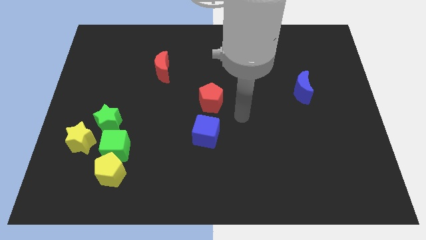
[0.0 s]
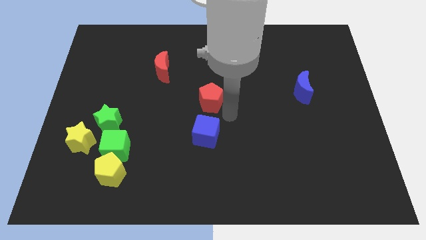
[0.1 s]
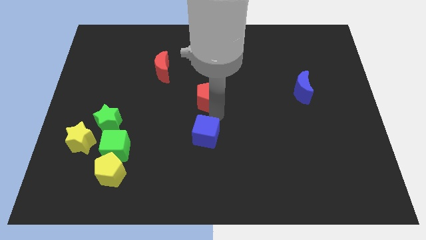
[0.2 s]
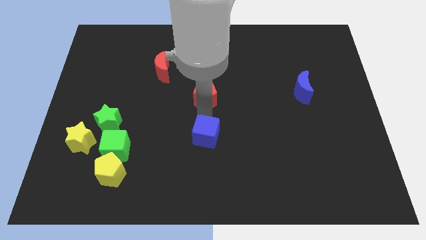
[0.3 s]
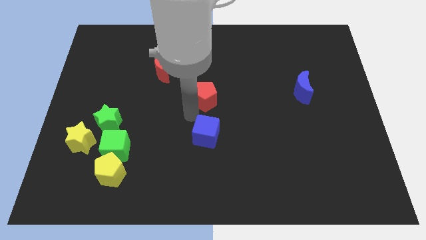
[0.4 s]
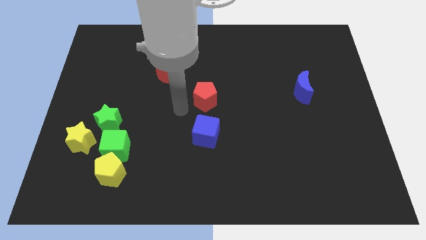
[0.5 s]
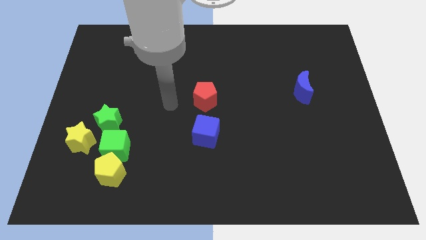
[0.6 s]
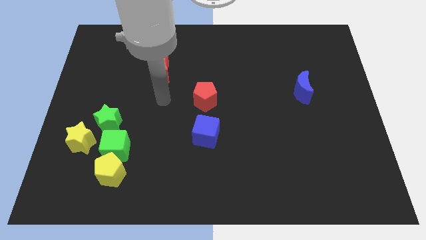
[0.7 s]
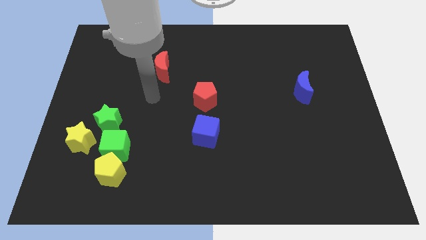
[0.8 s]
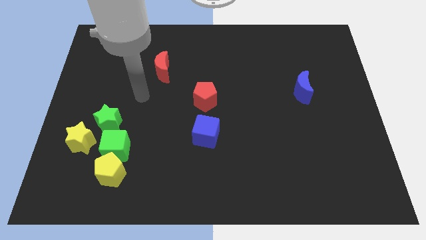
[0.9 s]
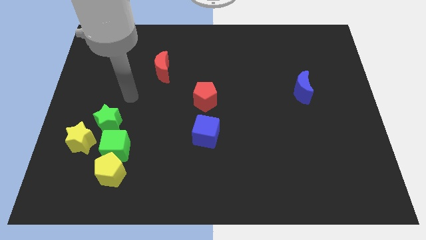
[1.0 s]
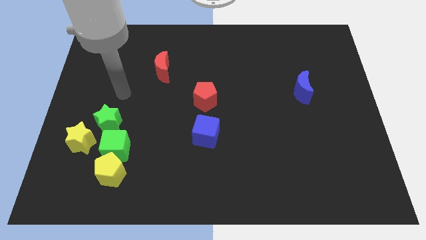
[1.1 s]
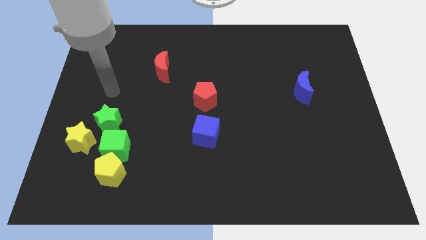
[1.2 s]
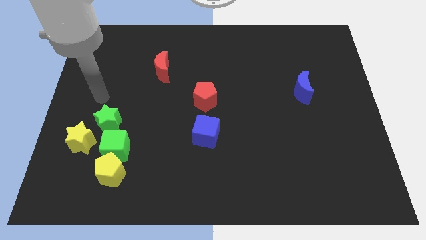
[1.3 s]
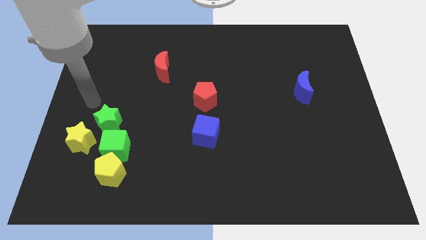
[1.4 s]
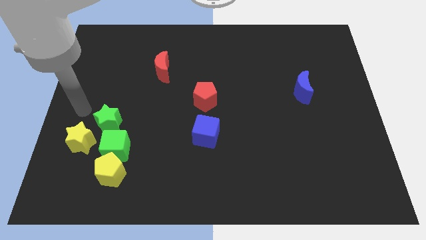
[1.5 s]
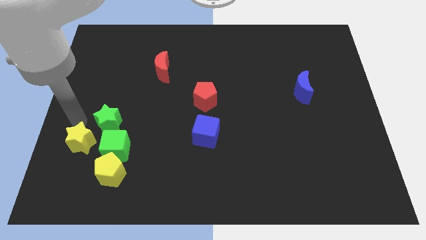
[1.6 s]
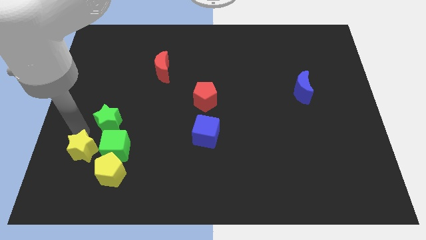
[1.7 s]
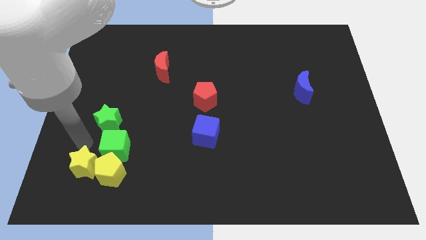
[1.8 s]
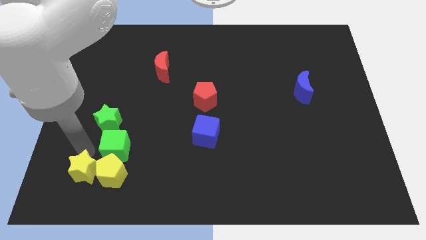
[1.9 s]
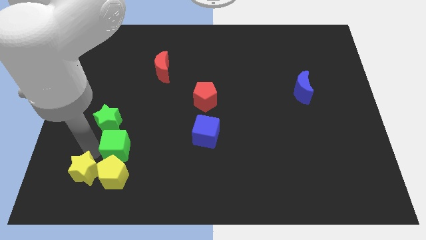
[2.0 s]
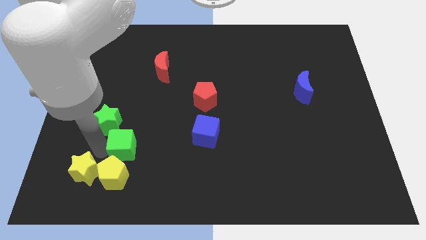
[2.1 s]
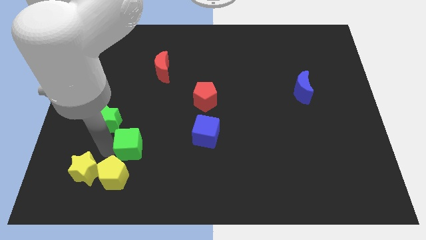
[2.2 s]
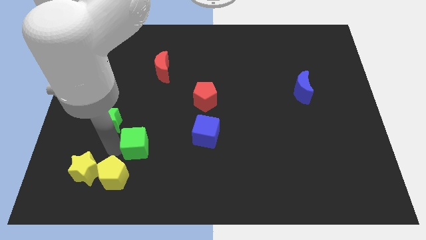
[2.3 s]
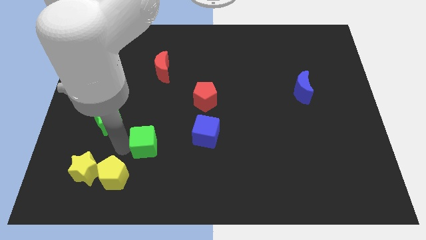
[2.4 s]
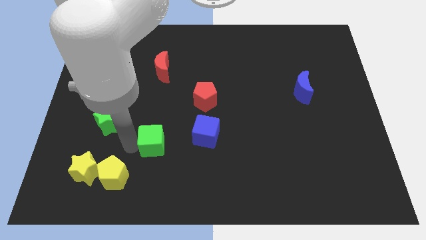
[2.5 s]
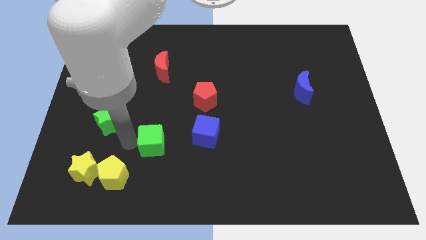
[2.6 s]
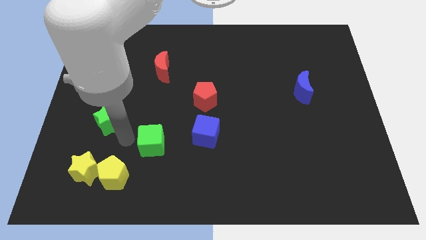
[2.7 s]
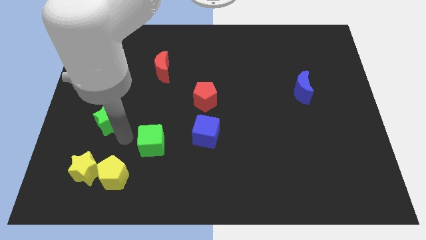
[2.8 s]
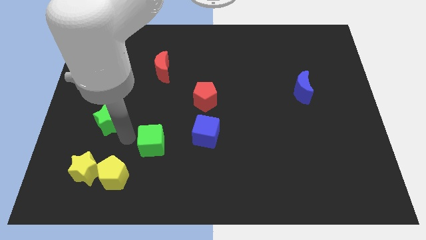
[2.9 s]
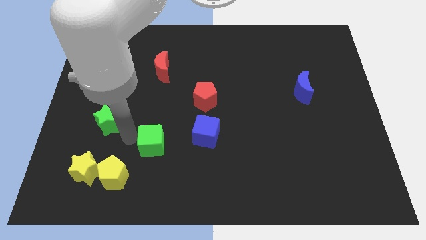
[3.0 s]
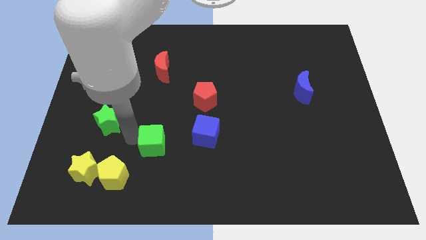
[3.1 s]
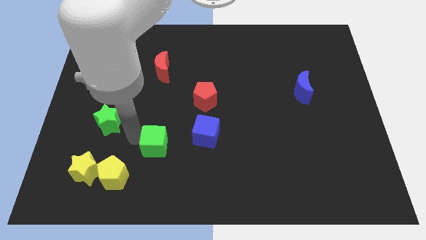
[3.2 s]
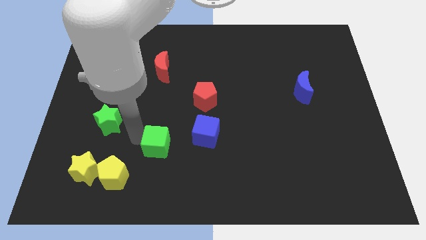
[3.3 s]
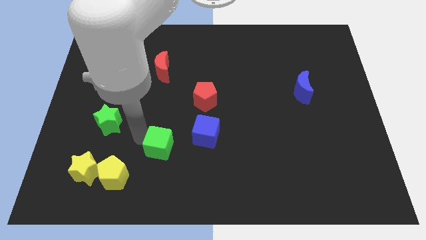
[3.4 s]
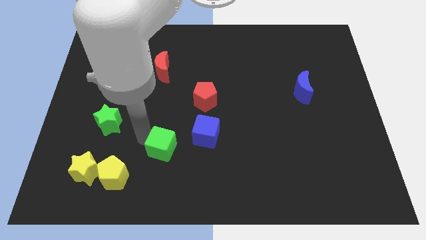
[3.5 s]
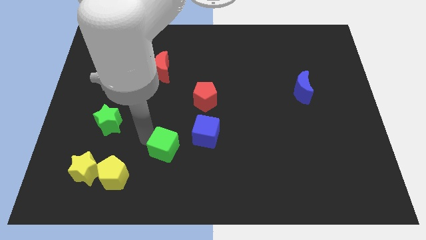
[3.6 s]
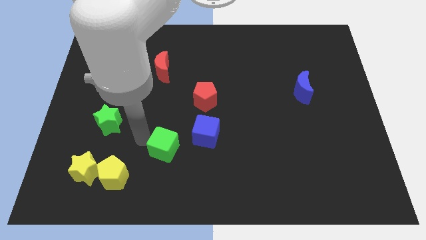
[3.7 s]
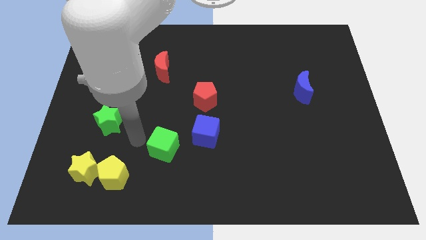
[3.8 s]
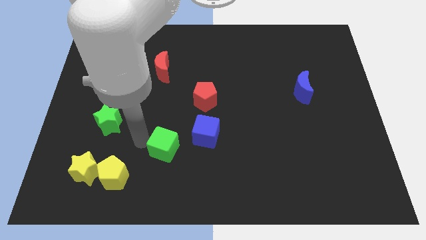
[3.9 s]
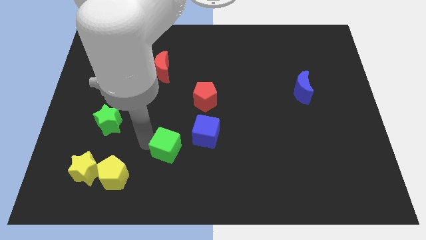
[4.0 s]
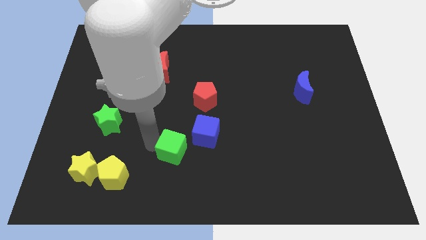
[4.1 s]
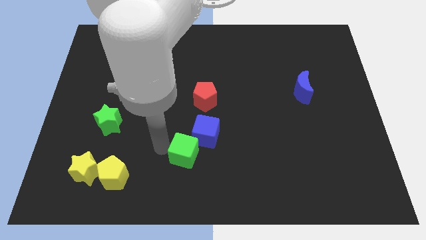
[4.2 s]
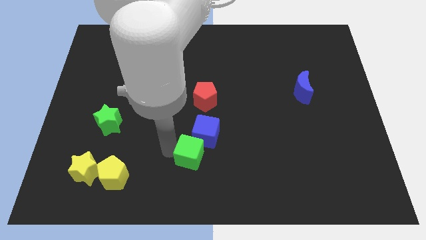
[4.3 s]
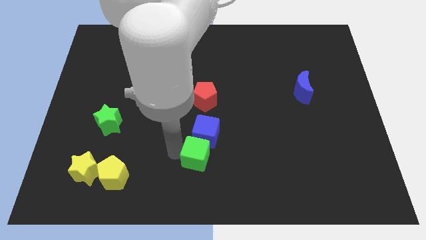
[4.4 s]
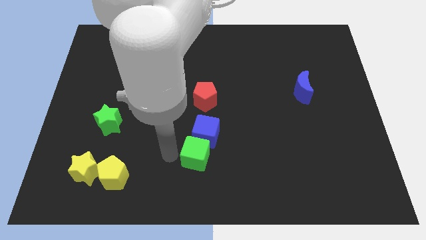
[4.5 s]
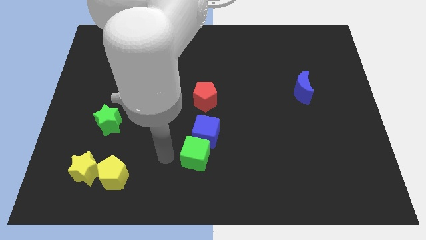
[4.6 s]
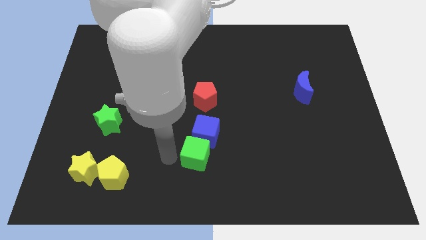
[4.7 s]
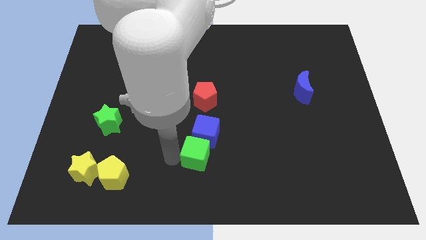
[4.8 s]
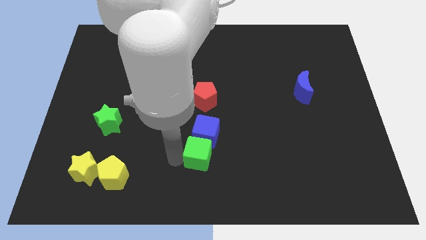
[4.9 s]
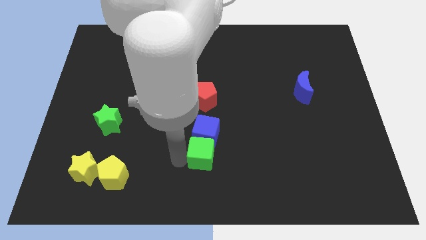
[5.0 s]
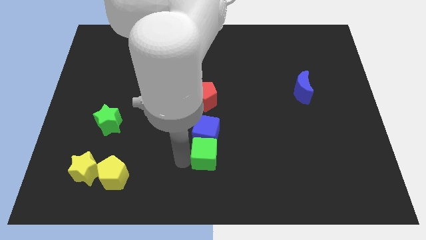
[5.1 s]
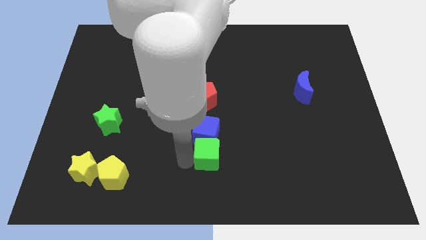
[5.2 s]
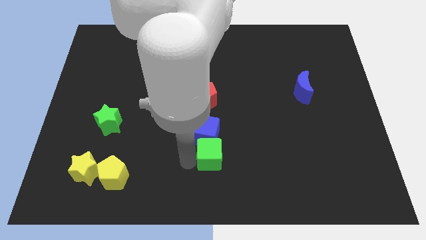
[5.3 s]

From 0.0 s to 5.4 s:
push the green cube right

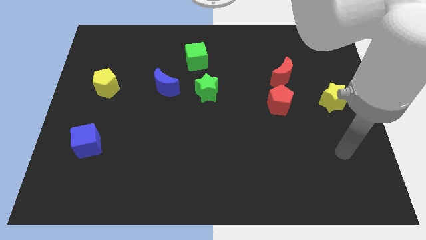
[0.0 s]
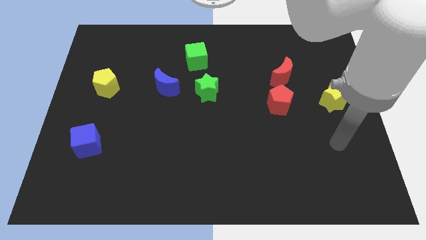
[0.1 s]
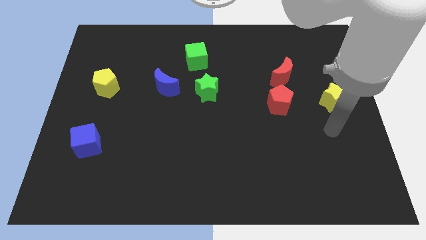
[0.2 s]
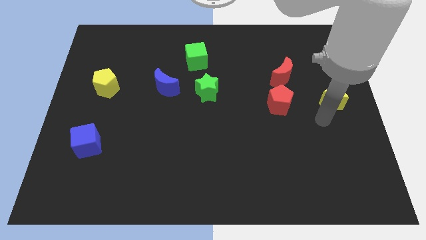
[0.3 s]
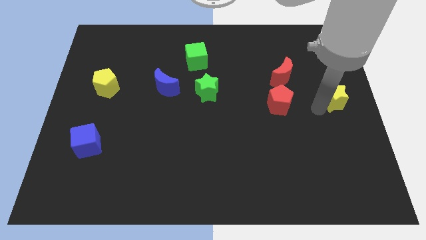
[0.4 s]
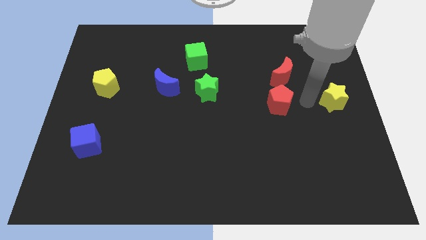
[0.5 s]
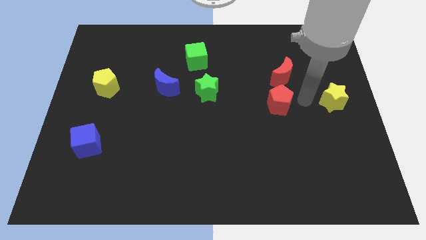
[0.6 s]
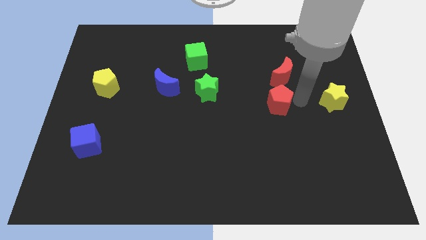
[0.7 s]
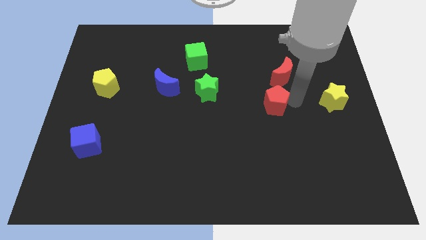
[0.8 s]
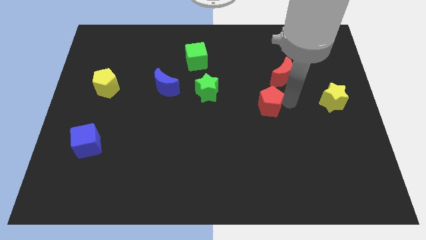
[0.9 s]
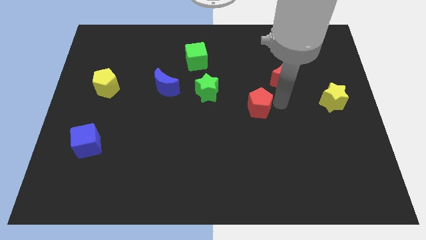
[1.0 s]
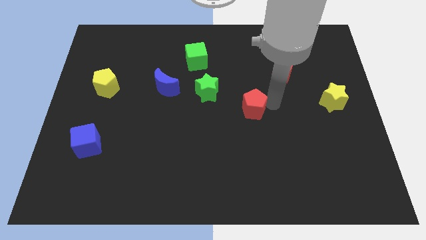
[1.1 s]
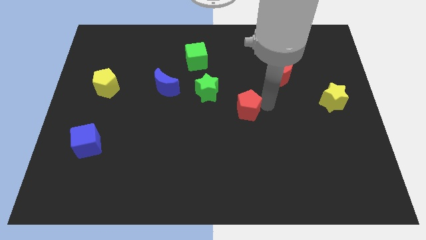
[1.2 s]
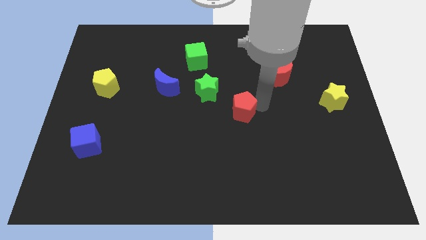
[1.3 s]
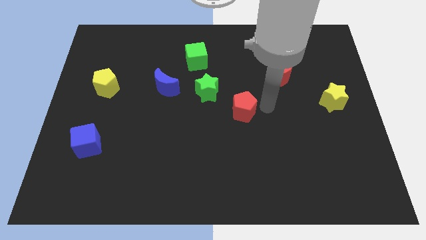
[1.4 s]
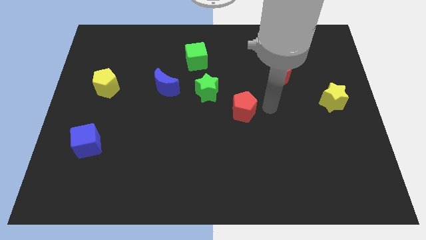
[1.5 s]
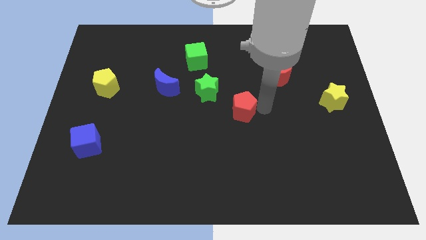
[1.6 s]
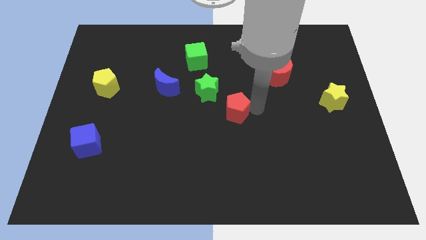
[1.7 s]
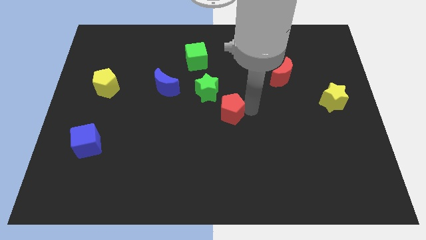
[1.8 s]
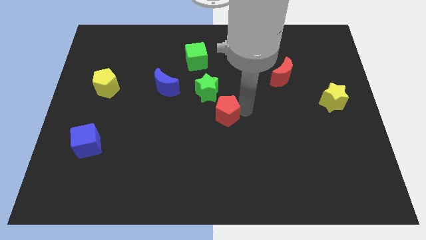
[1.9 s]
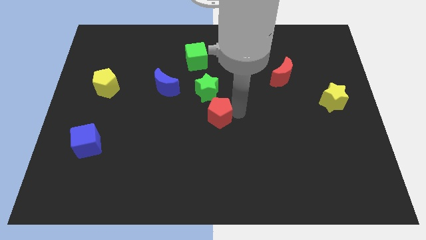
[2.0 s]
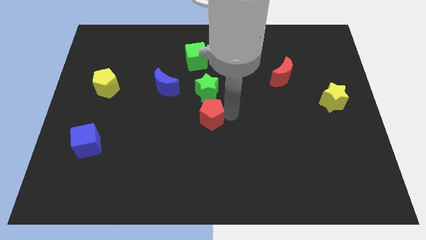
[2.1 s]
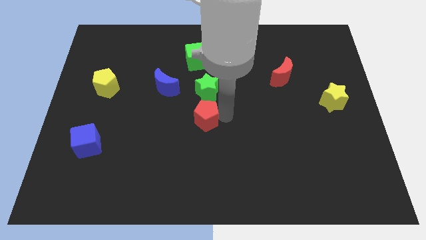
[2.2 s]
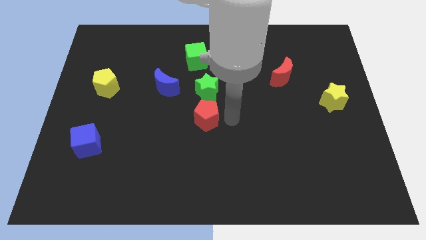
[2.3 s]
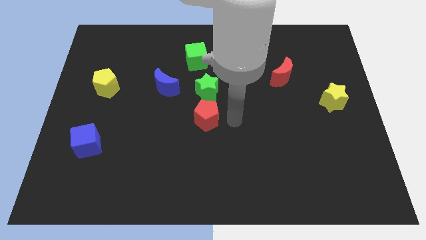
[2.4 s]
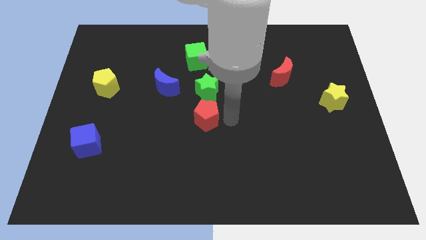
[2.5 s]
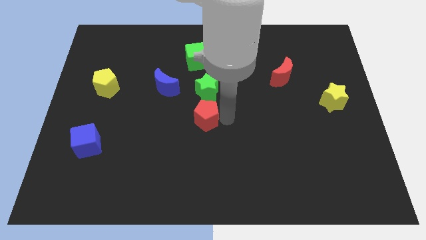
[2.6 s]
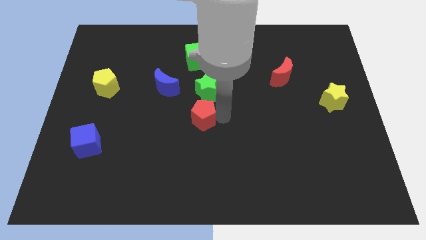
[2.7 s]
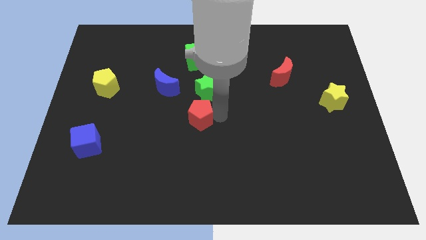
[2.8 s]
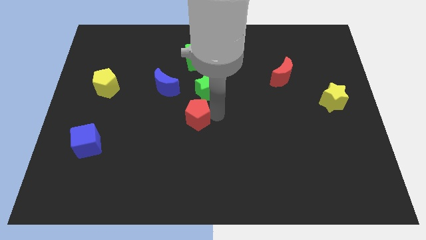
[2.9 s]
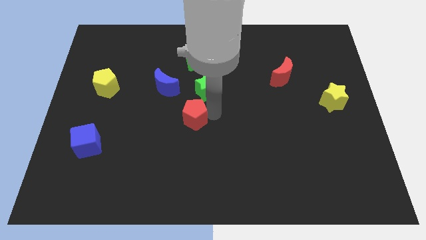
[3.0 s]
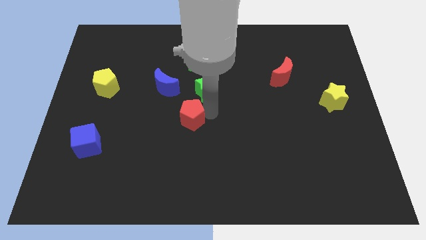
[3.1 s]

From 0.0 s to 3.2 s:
push the red pentagon left
